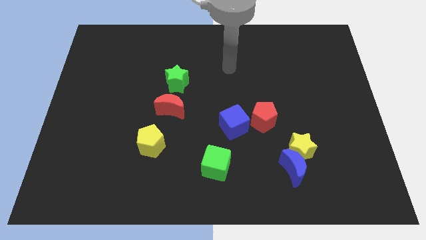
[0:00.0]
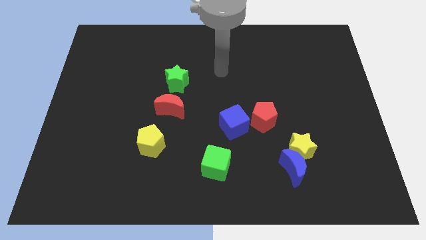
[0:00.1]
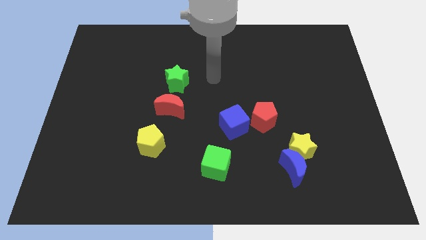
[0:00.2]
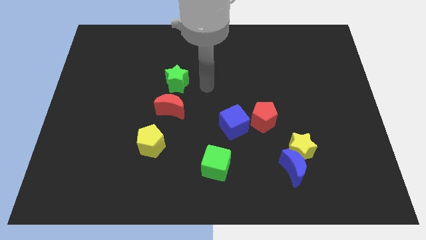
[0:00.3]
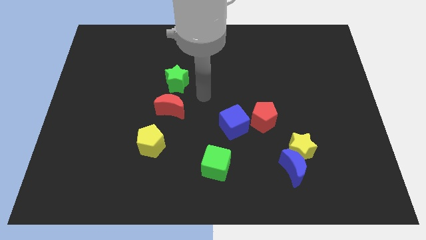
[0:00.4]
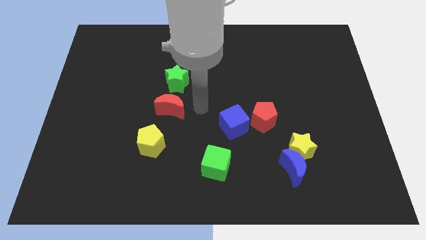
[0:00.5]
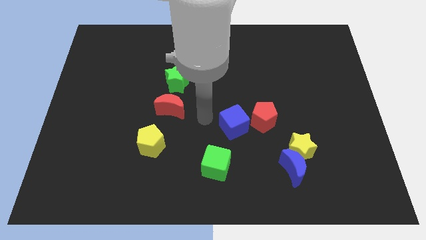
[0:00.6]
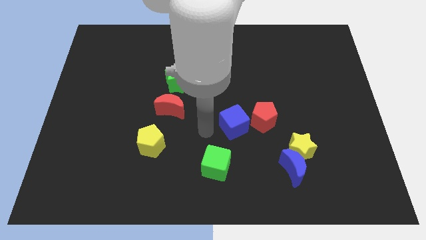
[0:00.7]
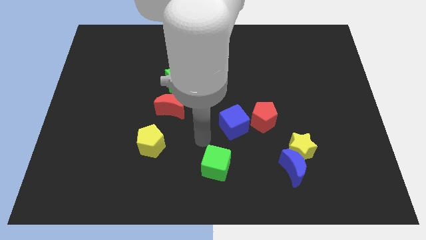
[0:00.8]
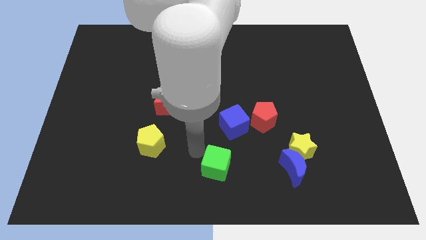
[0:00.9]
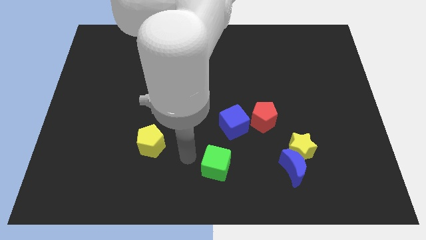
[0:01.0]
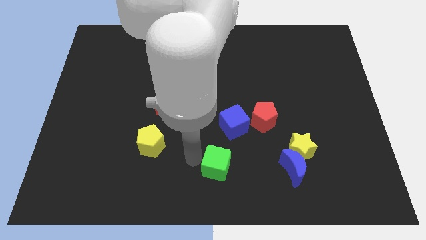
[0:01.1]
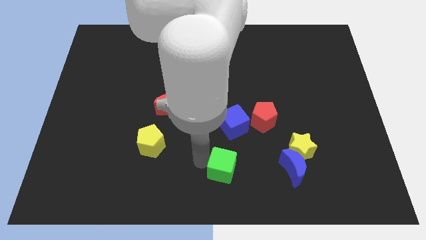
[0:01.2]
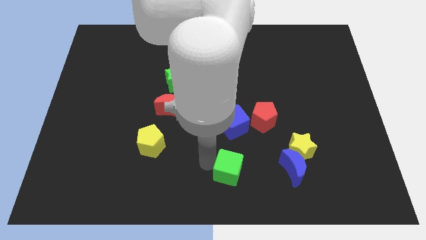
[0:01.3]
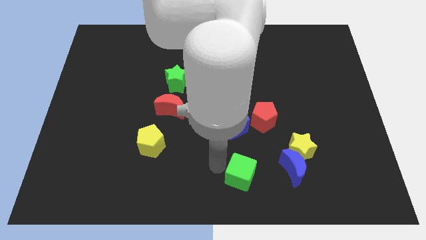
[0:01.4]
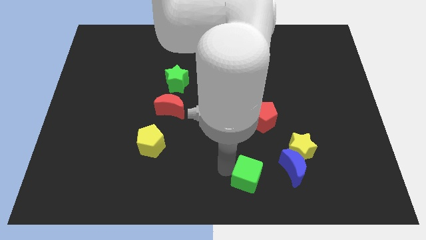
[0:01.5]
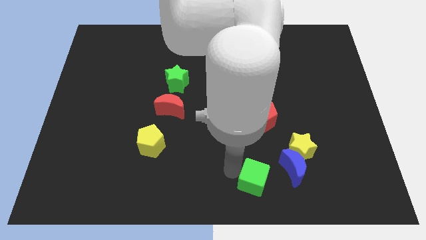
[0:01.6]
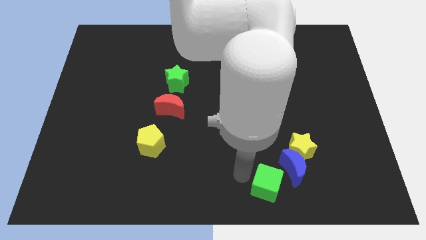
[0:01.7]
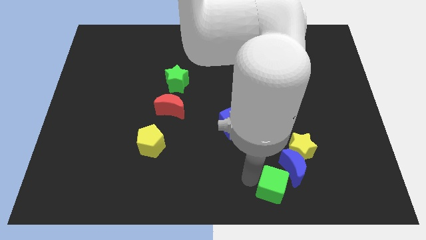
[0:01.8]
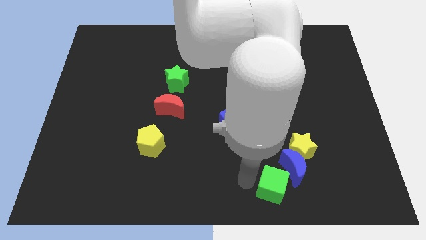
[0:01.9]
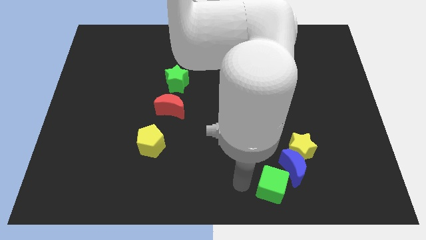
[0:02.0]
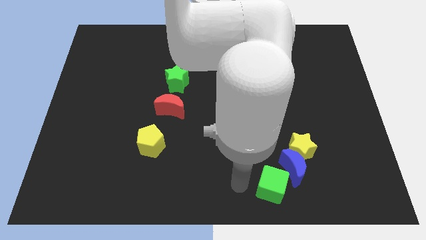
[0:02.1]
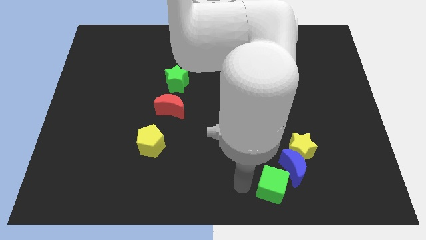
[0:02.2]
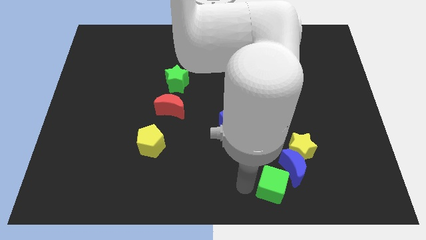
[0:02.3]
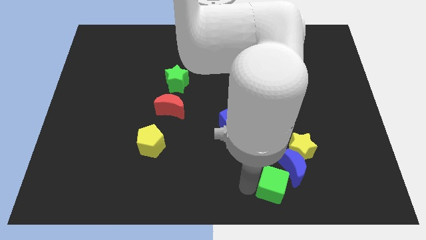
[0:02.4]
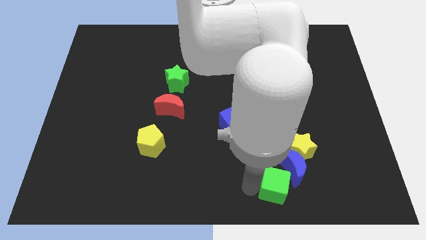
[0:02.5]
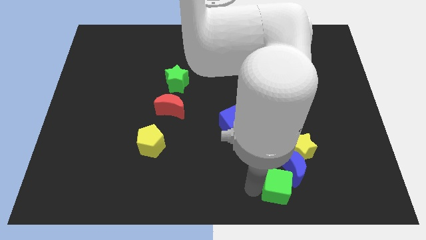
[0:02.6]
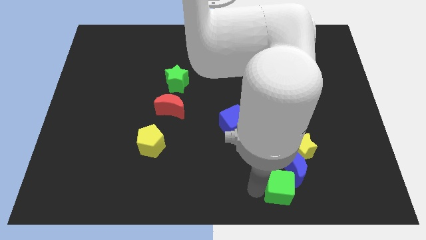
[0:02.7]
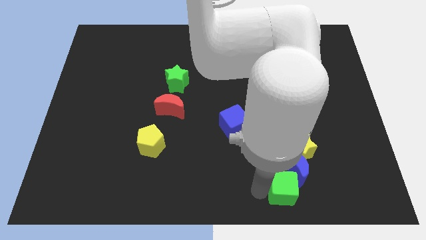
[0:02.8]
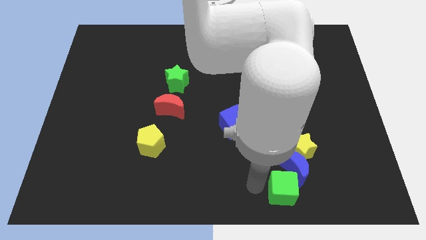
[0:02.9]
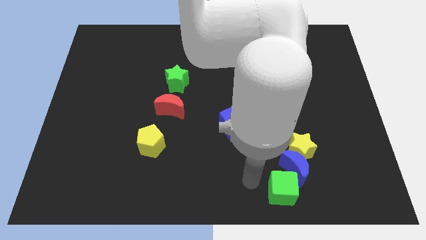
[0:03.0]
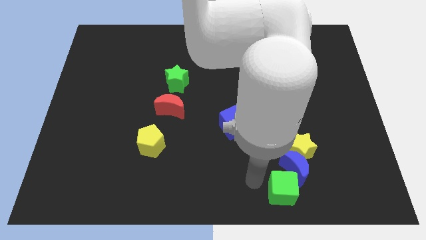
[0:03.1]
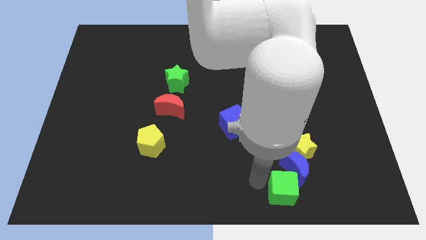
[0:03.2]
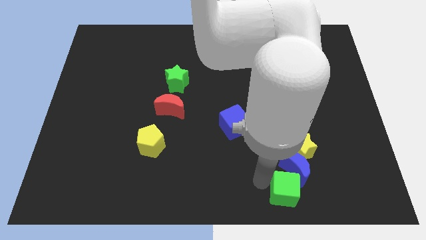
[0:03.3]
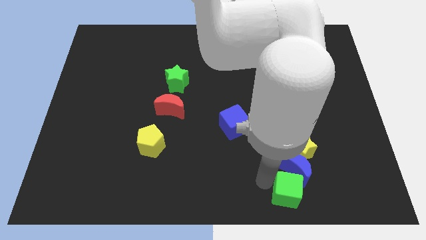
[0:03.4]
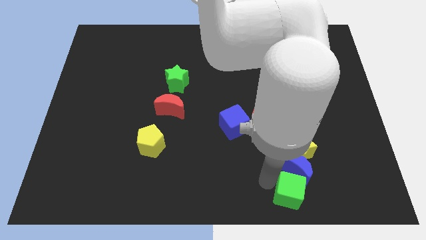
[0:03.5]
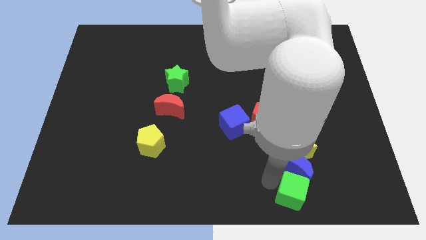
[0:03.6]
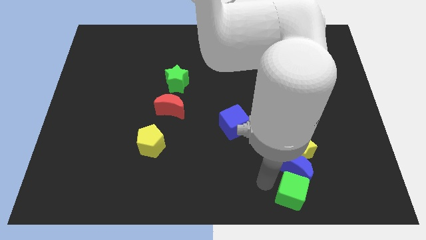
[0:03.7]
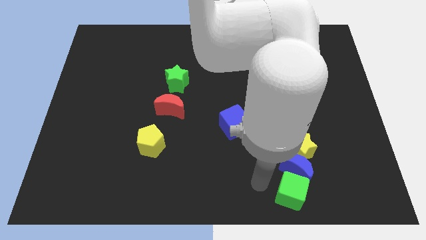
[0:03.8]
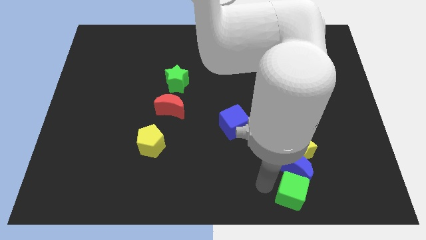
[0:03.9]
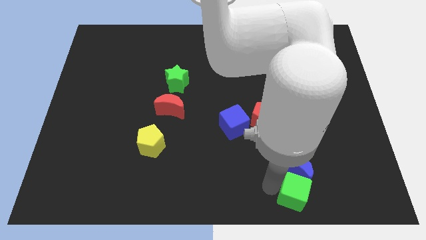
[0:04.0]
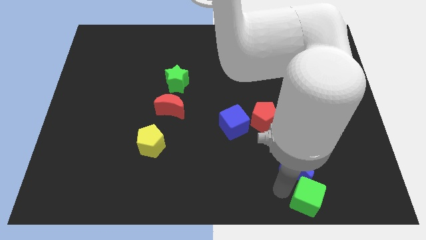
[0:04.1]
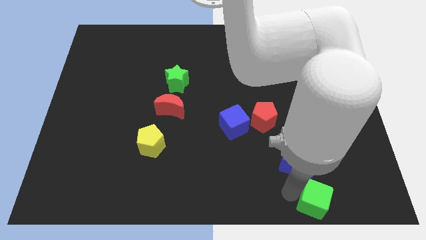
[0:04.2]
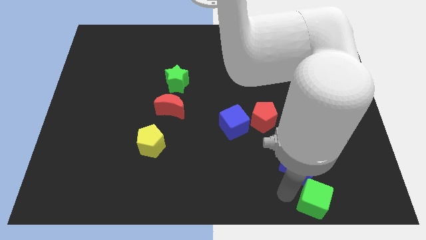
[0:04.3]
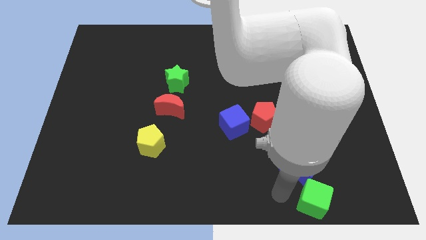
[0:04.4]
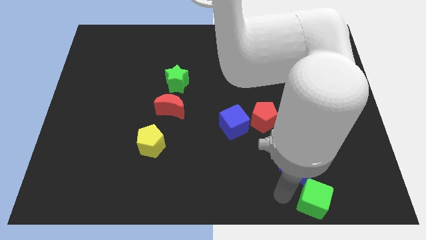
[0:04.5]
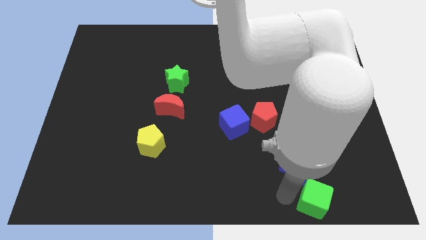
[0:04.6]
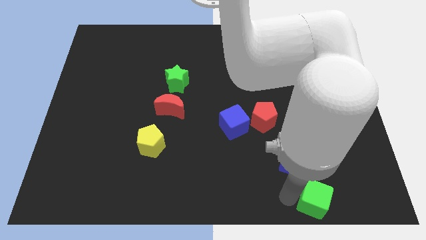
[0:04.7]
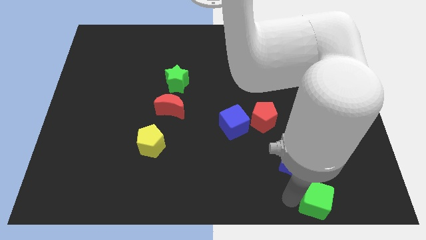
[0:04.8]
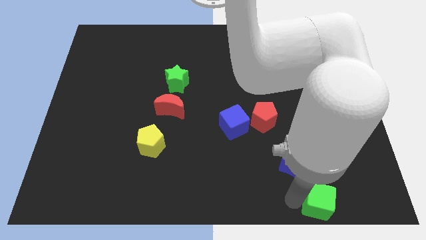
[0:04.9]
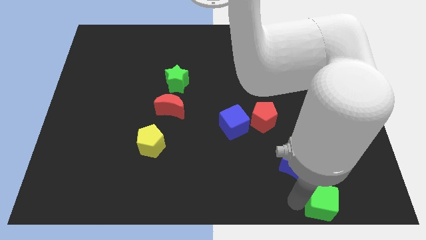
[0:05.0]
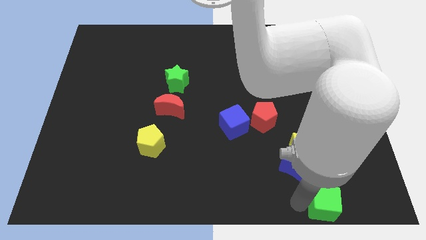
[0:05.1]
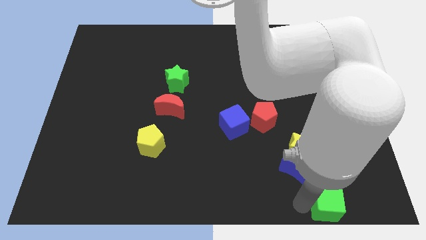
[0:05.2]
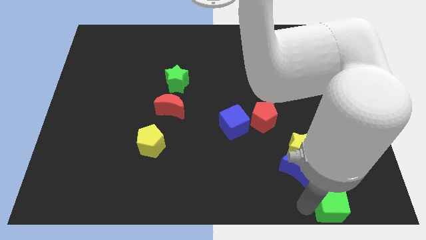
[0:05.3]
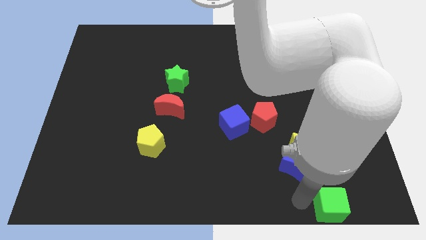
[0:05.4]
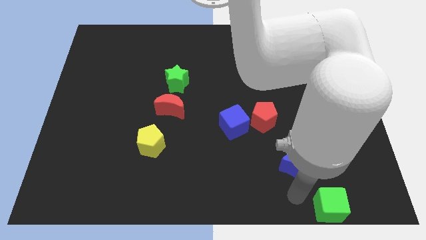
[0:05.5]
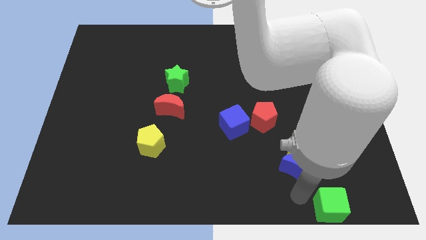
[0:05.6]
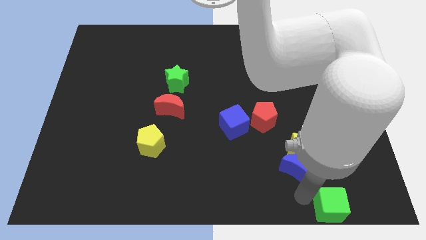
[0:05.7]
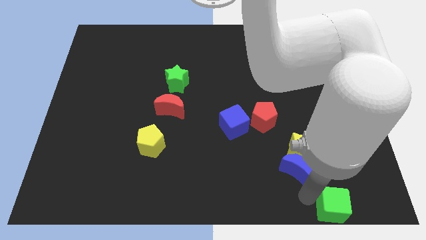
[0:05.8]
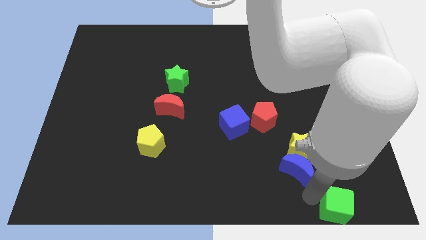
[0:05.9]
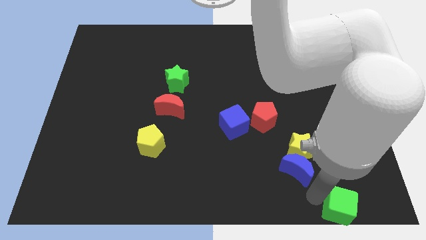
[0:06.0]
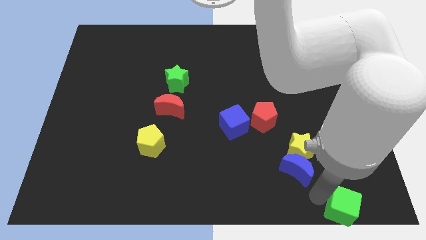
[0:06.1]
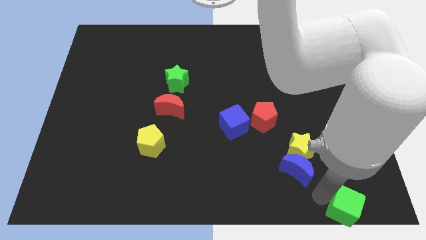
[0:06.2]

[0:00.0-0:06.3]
push the green cube to the bottom right of the board

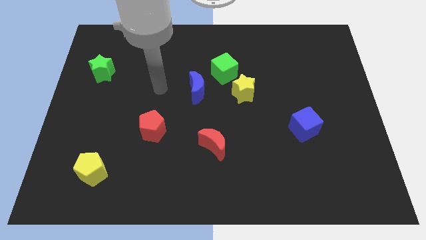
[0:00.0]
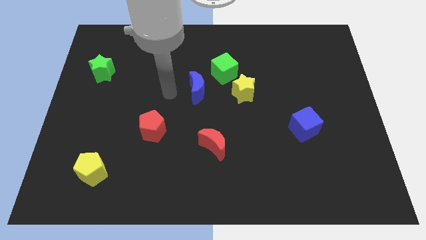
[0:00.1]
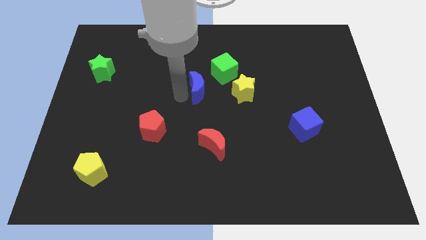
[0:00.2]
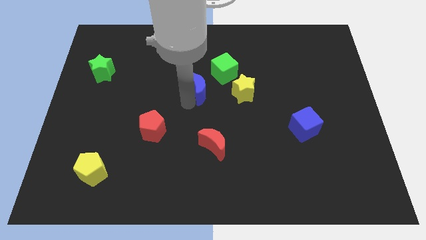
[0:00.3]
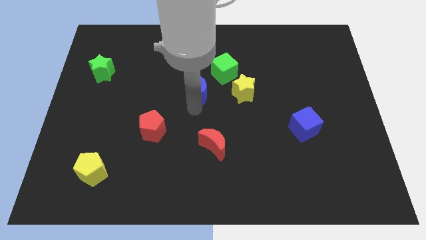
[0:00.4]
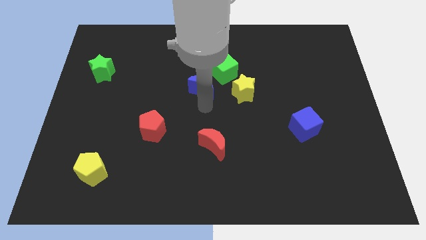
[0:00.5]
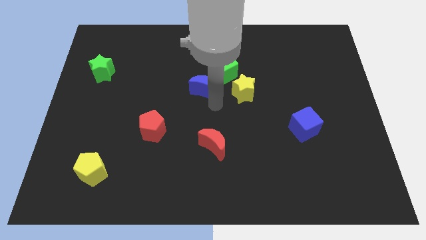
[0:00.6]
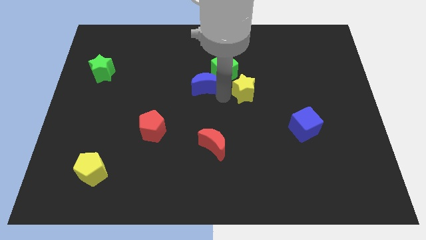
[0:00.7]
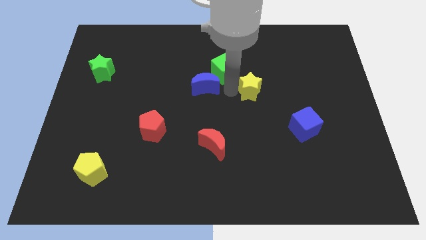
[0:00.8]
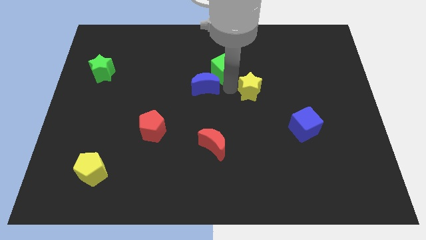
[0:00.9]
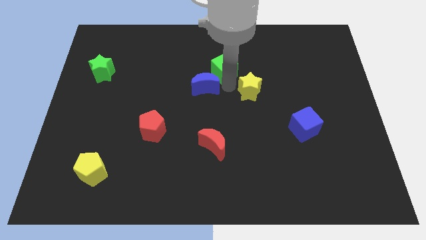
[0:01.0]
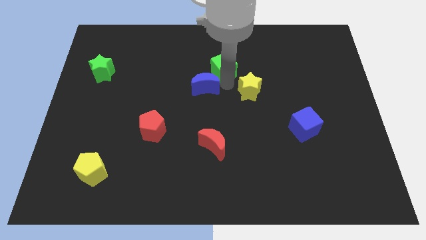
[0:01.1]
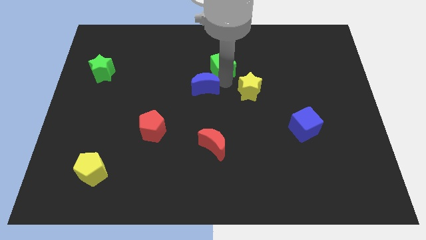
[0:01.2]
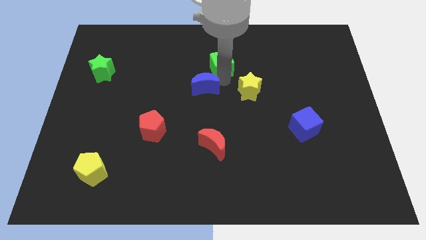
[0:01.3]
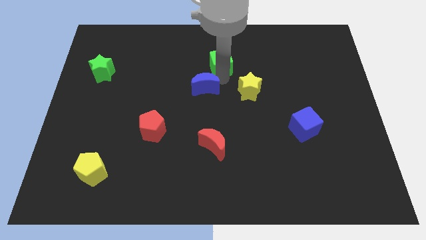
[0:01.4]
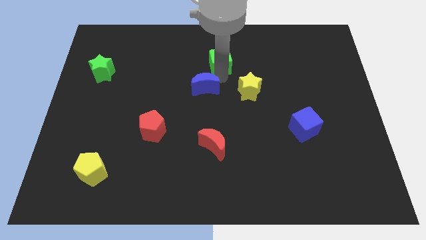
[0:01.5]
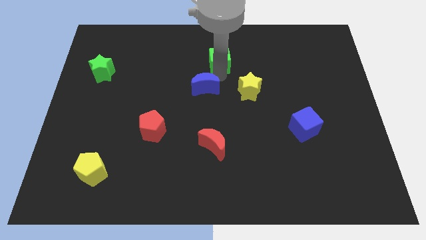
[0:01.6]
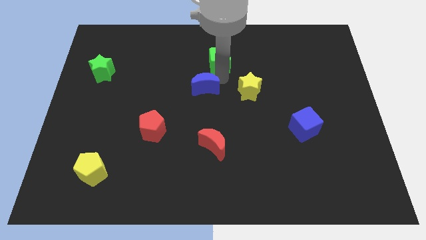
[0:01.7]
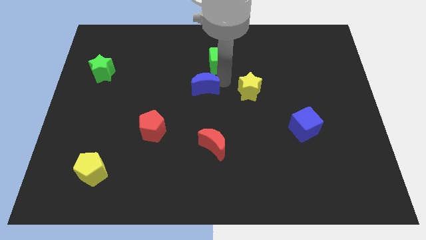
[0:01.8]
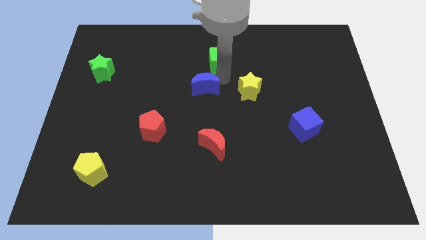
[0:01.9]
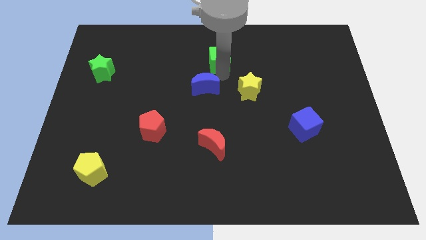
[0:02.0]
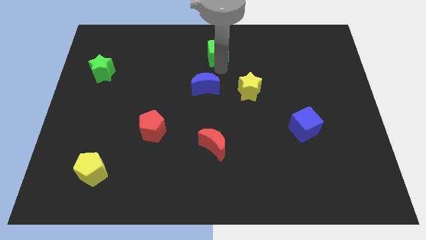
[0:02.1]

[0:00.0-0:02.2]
push the green cube to the towards your base
